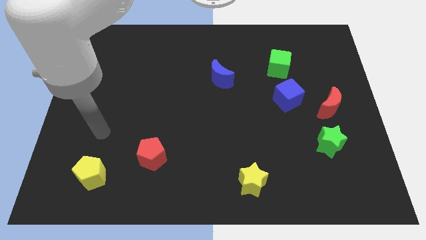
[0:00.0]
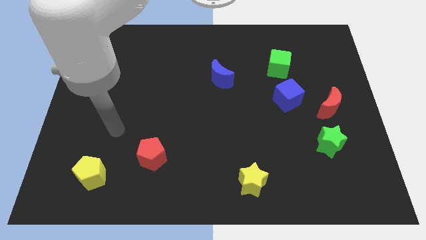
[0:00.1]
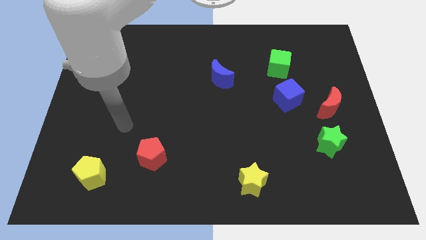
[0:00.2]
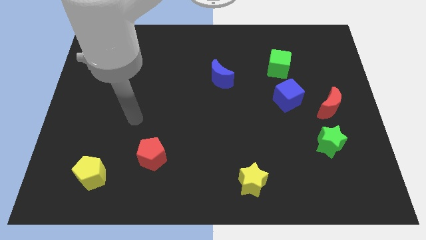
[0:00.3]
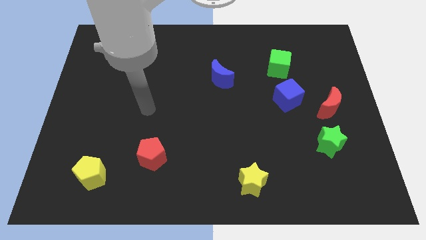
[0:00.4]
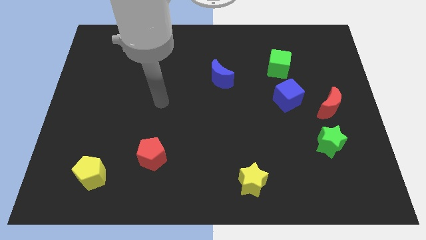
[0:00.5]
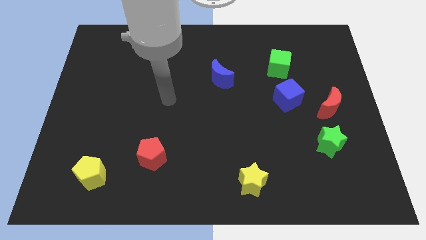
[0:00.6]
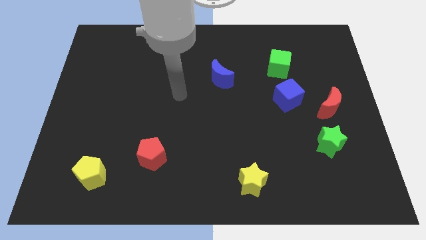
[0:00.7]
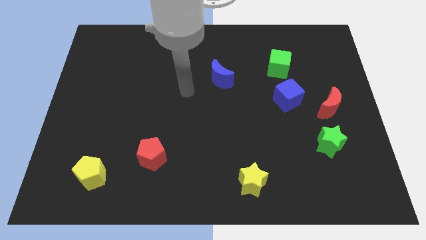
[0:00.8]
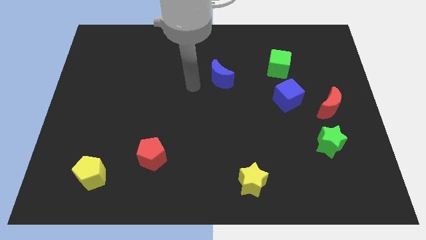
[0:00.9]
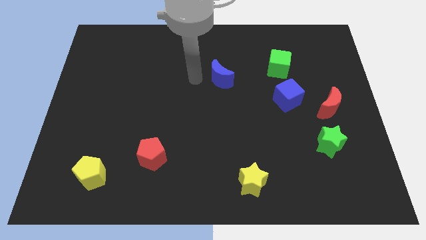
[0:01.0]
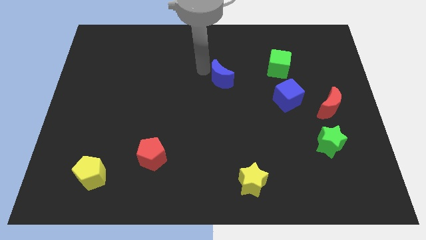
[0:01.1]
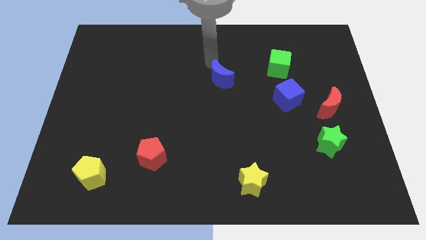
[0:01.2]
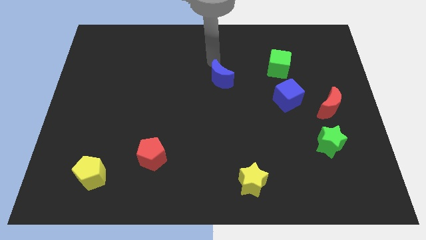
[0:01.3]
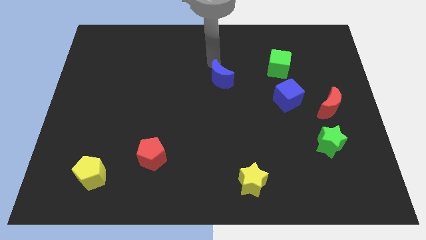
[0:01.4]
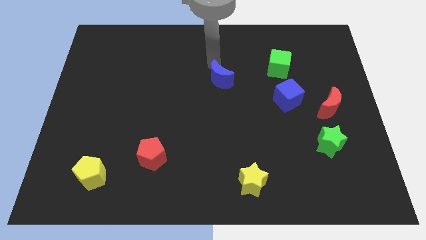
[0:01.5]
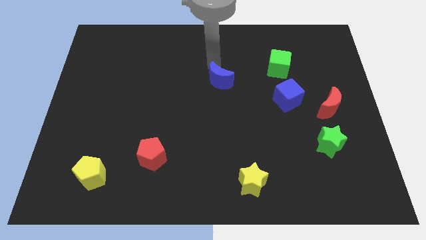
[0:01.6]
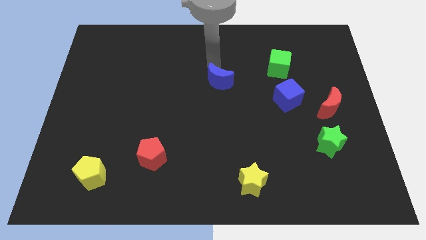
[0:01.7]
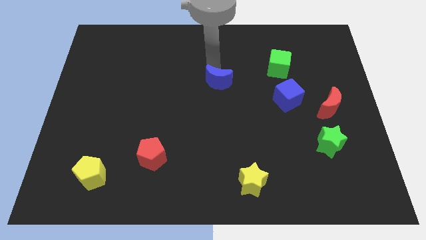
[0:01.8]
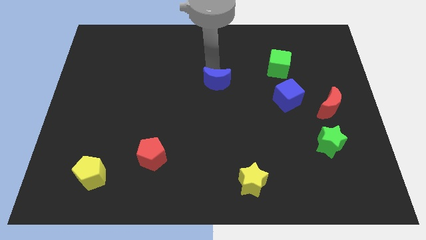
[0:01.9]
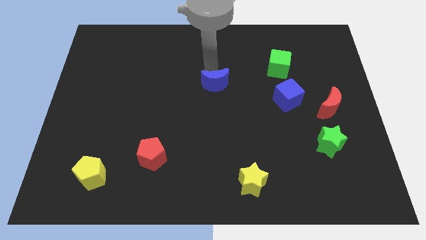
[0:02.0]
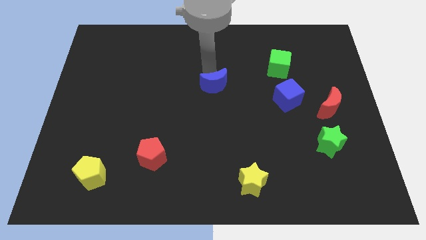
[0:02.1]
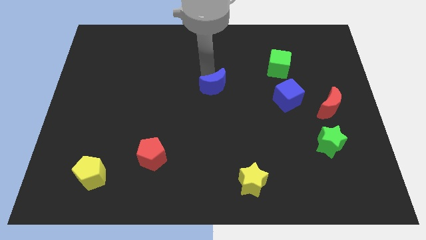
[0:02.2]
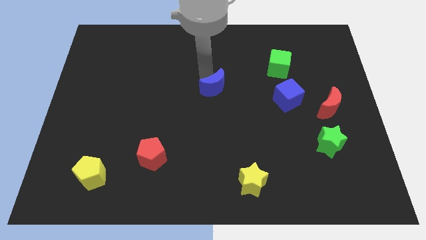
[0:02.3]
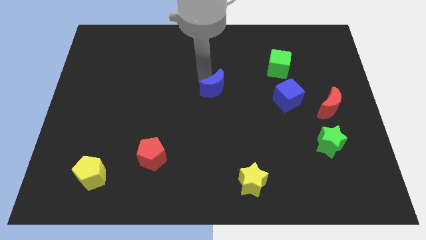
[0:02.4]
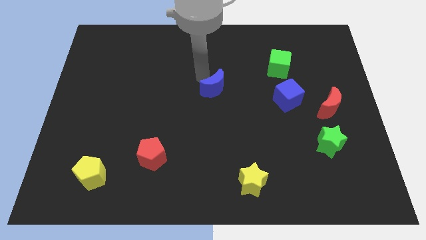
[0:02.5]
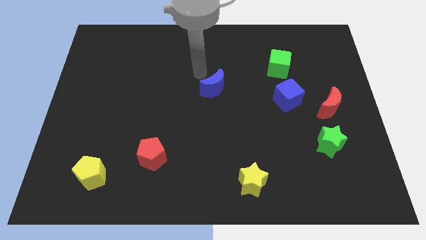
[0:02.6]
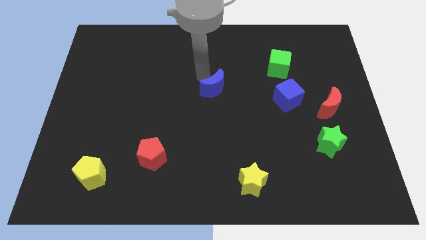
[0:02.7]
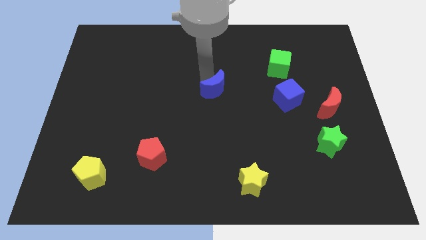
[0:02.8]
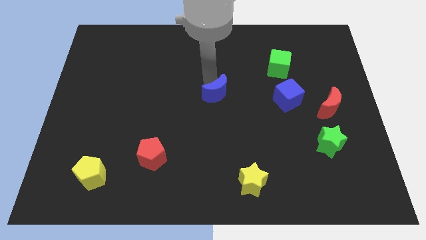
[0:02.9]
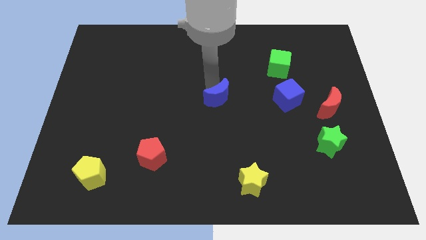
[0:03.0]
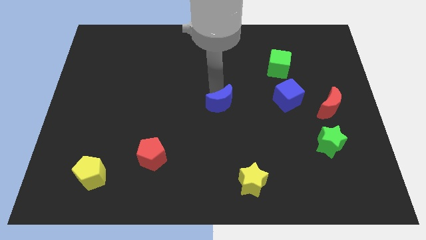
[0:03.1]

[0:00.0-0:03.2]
move the blue moon down slightly

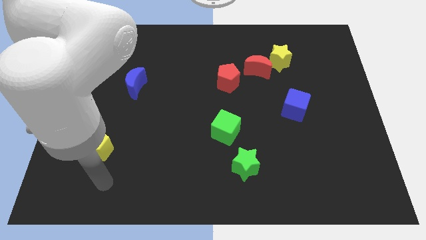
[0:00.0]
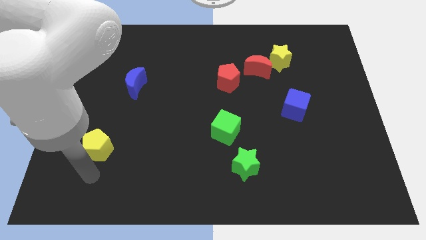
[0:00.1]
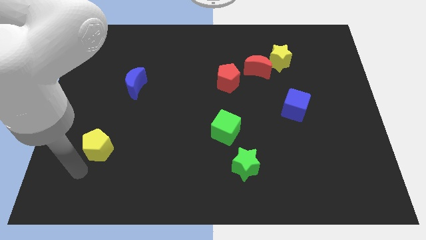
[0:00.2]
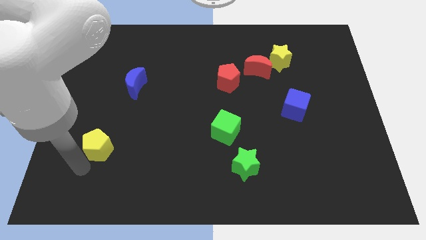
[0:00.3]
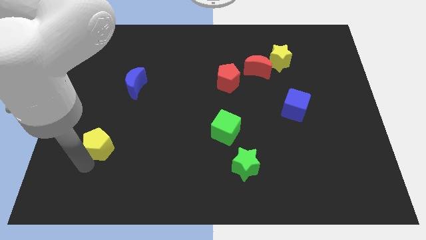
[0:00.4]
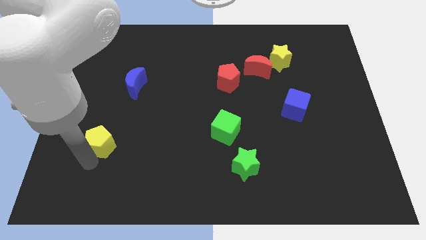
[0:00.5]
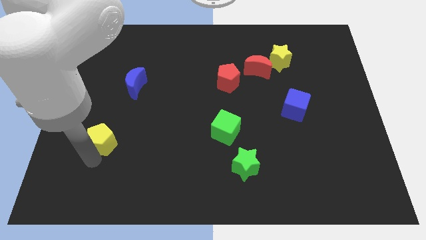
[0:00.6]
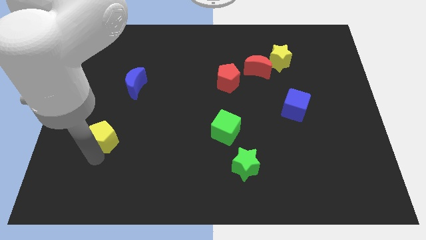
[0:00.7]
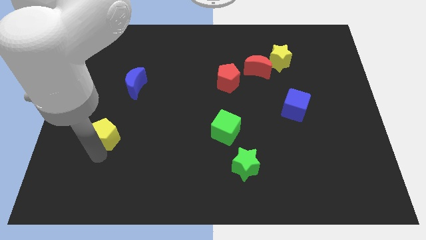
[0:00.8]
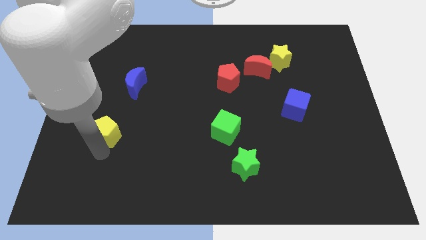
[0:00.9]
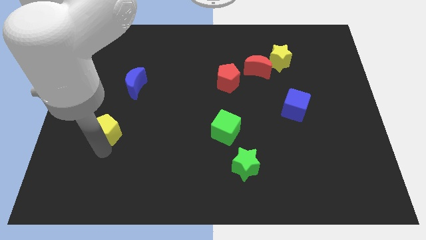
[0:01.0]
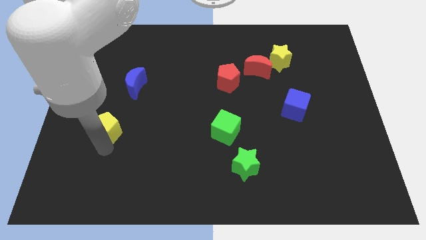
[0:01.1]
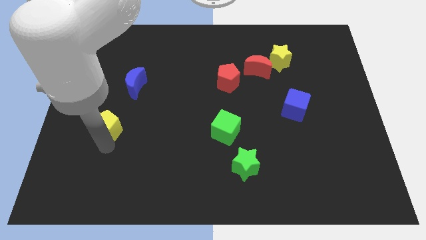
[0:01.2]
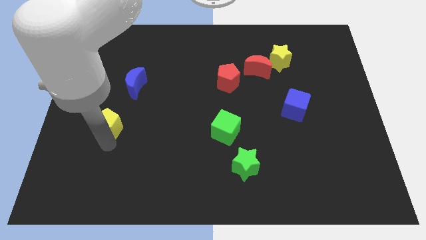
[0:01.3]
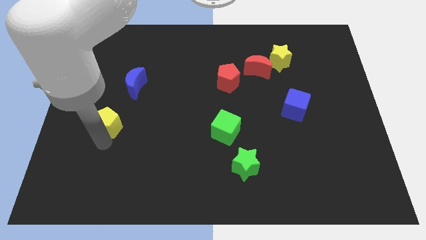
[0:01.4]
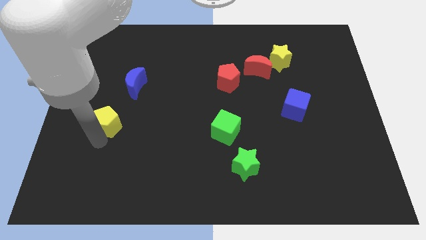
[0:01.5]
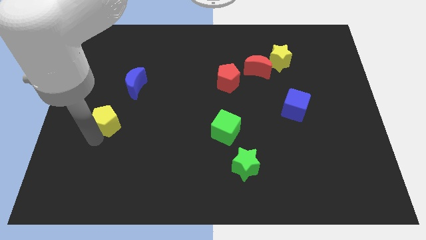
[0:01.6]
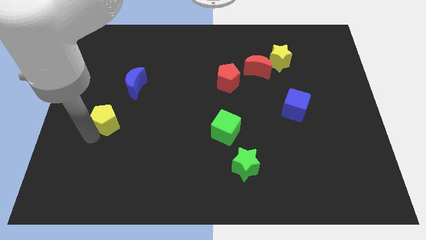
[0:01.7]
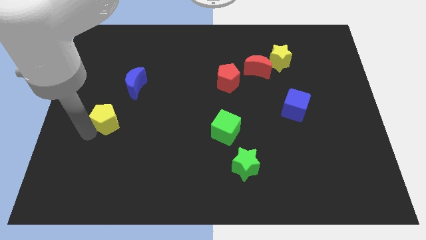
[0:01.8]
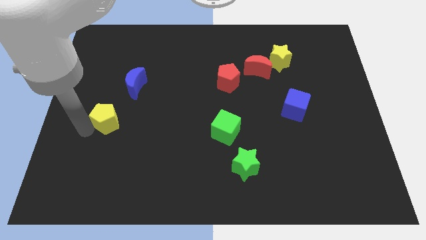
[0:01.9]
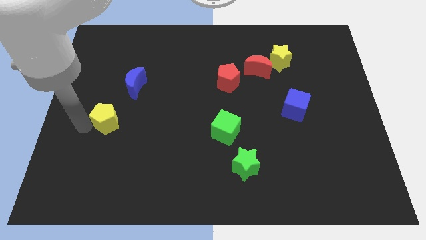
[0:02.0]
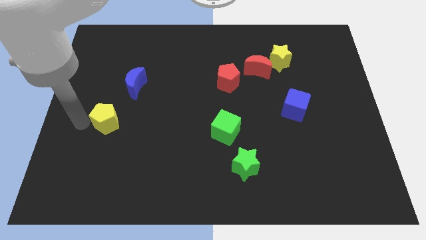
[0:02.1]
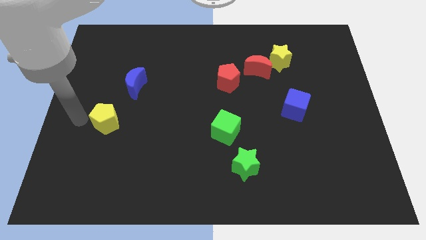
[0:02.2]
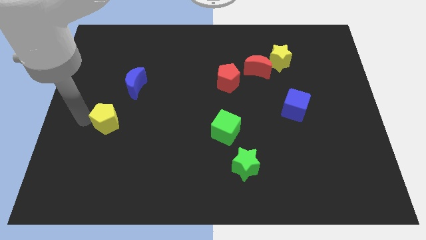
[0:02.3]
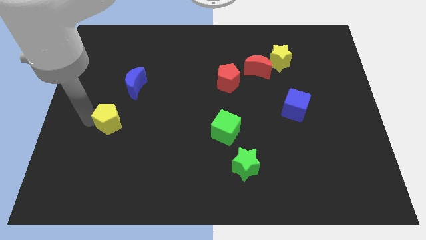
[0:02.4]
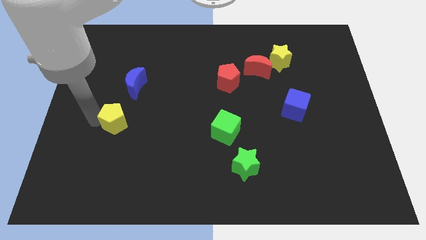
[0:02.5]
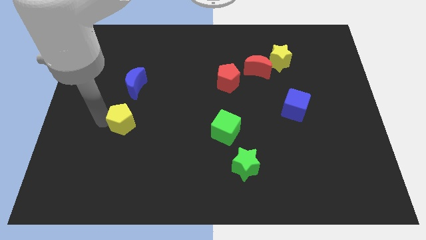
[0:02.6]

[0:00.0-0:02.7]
slide the yellow pentagon a bit diagonally upwards and right

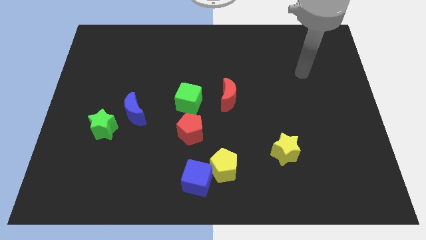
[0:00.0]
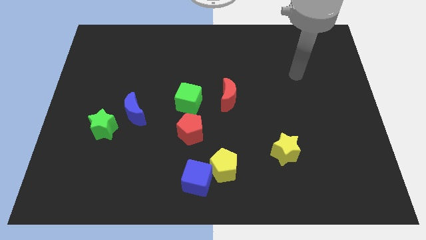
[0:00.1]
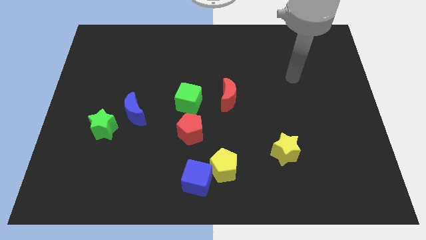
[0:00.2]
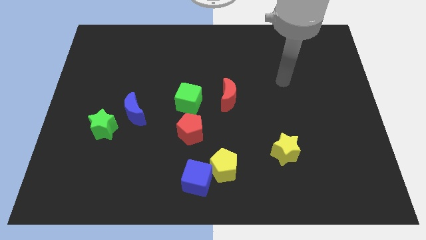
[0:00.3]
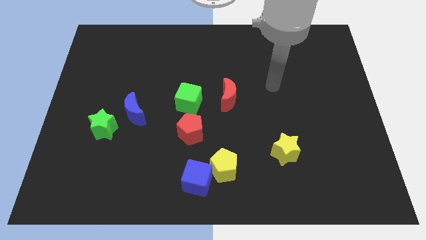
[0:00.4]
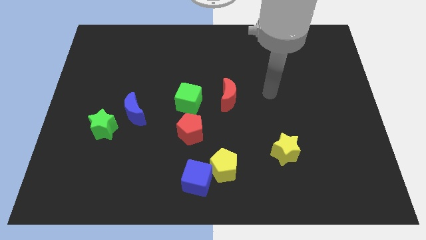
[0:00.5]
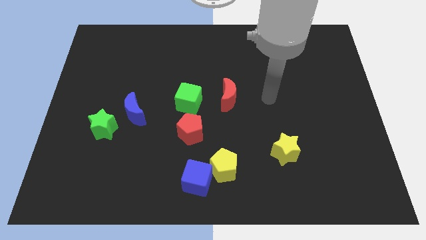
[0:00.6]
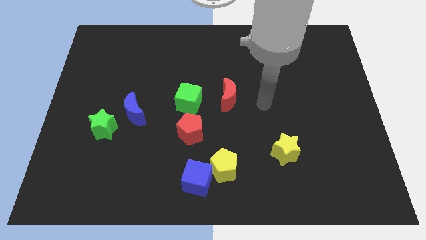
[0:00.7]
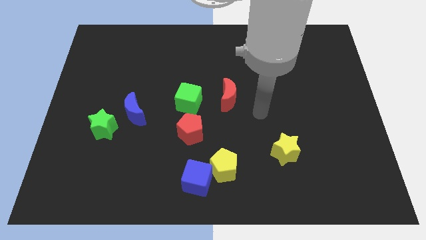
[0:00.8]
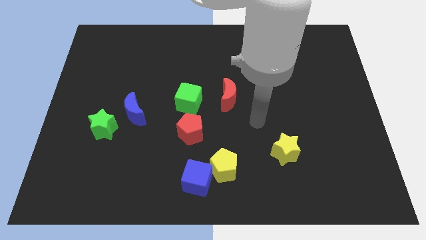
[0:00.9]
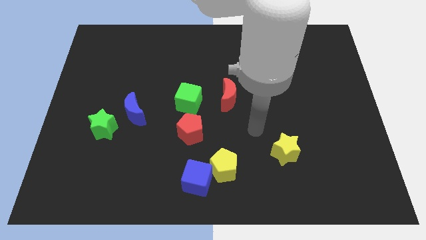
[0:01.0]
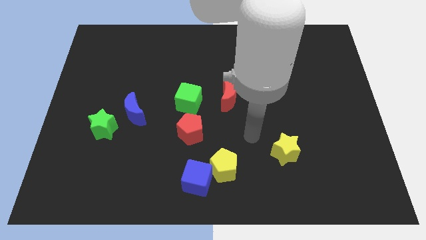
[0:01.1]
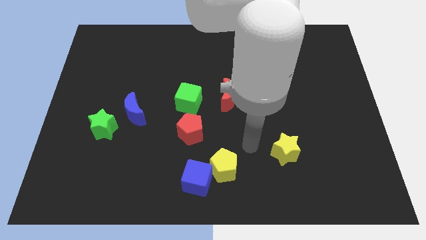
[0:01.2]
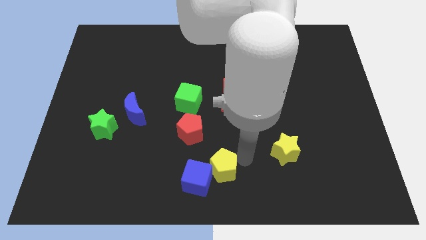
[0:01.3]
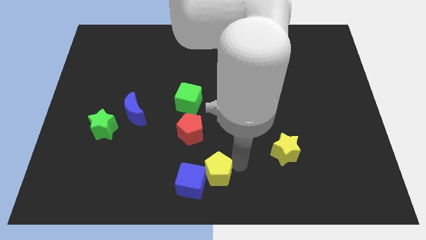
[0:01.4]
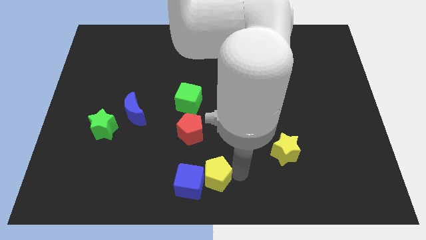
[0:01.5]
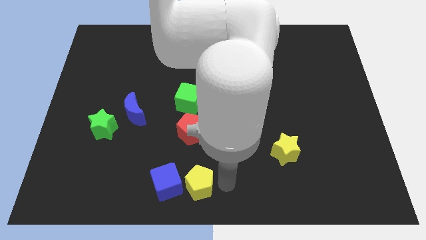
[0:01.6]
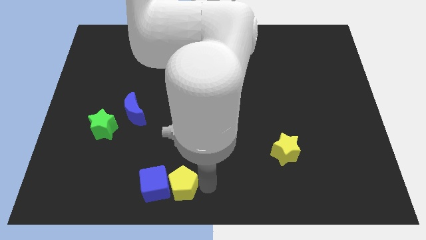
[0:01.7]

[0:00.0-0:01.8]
slightly move the blue cube to the left

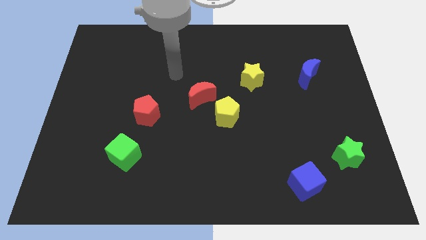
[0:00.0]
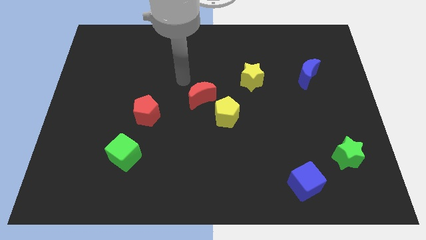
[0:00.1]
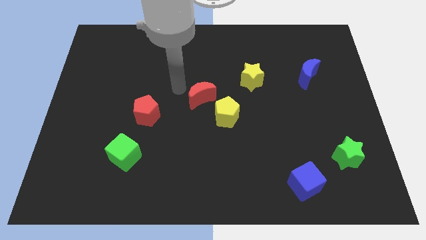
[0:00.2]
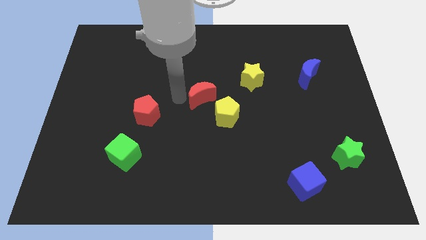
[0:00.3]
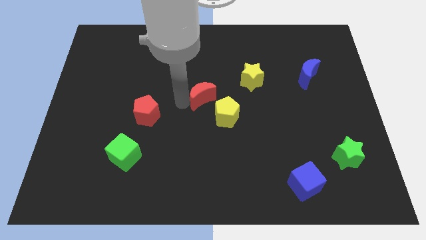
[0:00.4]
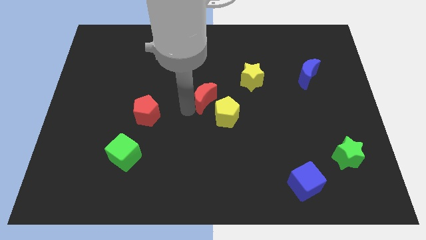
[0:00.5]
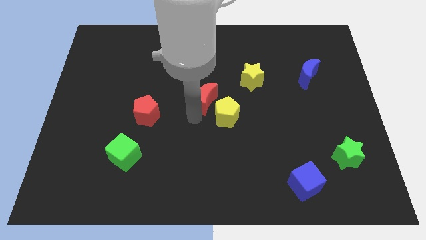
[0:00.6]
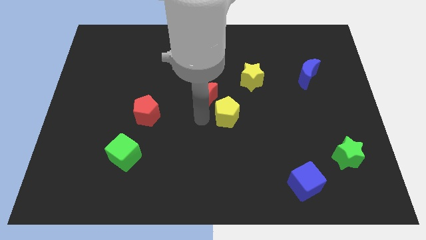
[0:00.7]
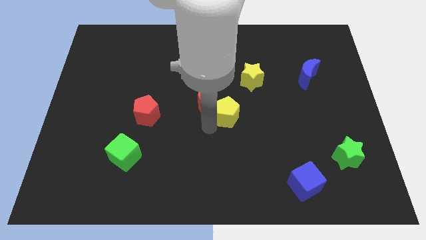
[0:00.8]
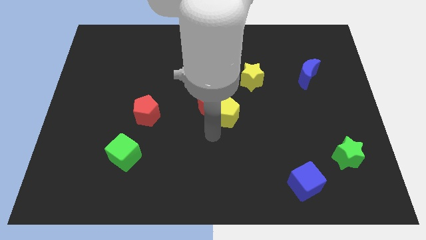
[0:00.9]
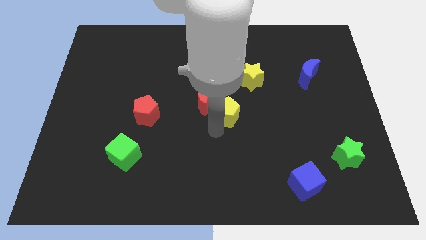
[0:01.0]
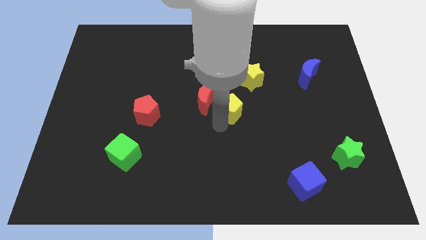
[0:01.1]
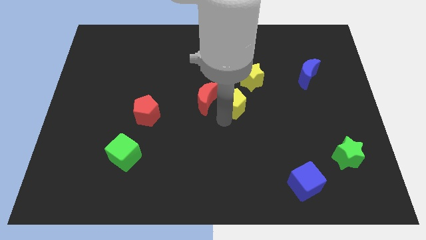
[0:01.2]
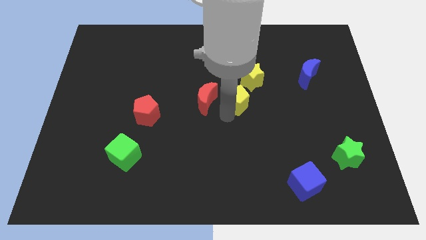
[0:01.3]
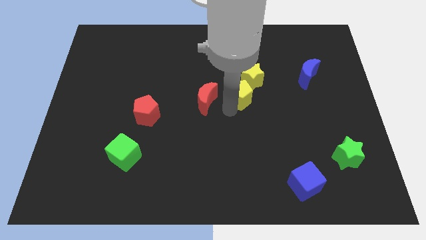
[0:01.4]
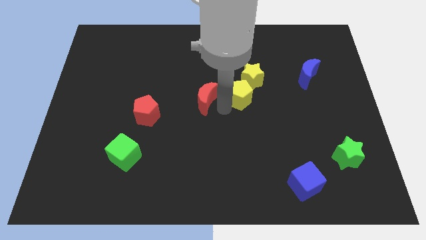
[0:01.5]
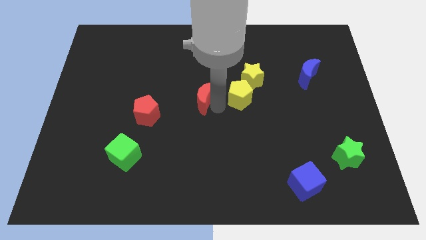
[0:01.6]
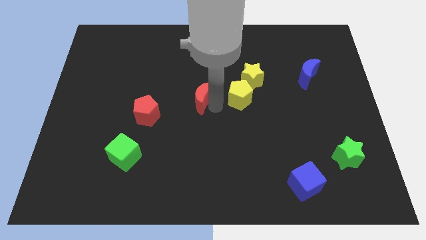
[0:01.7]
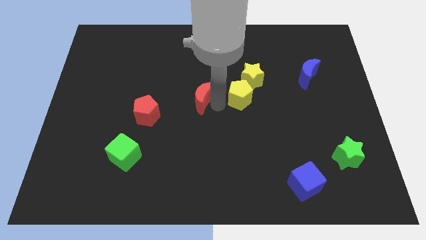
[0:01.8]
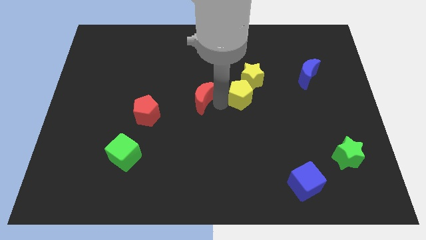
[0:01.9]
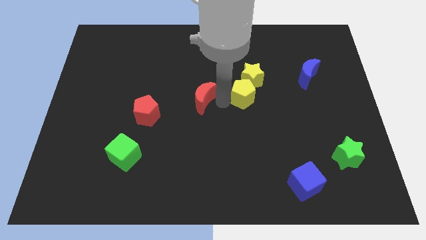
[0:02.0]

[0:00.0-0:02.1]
move the yellow pentagon diagonally up and right a little
